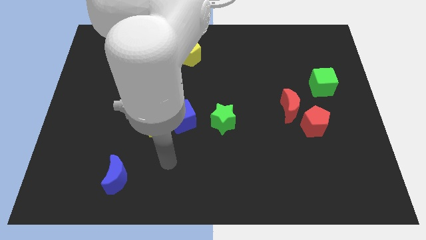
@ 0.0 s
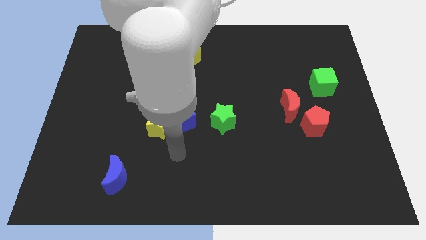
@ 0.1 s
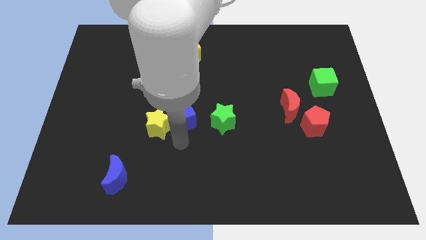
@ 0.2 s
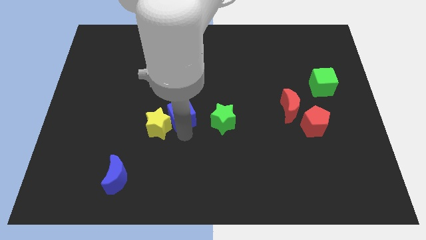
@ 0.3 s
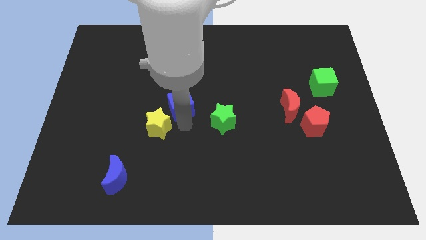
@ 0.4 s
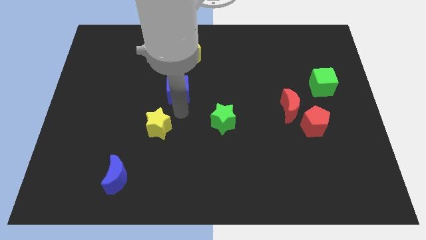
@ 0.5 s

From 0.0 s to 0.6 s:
move the yellow star away from the blue cube

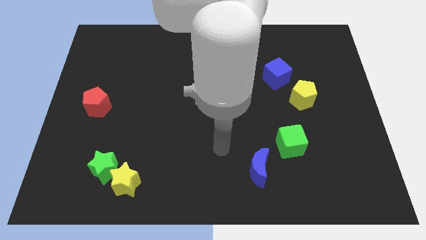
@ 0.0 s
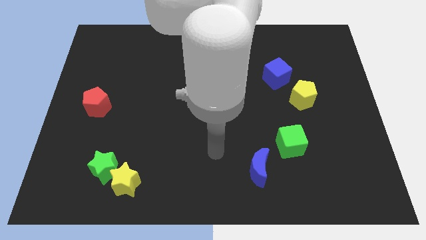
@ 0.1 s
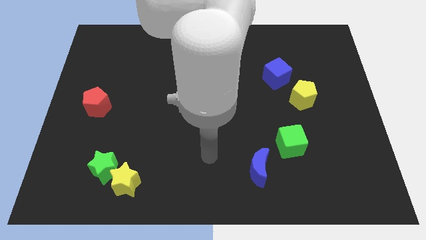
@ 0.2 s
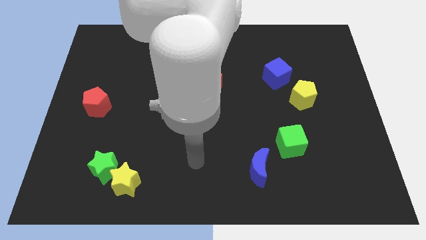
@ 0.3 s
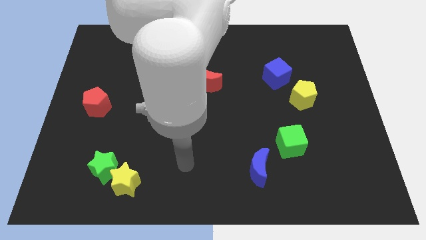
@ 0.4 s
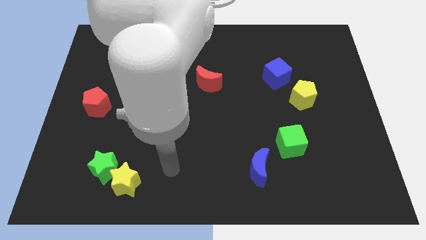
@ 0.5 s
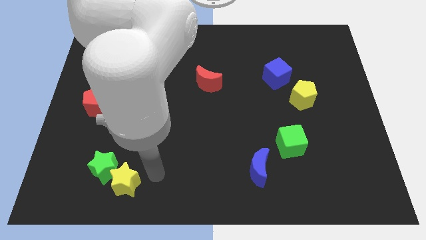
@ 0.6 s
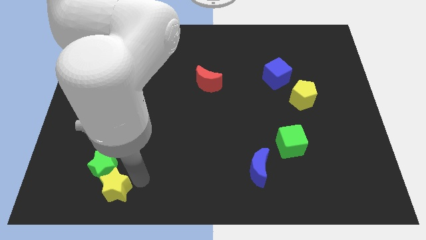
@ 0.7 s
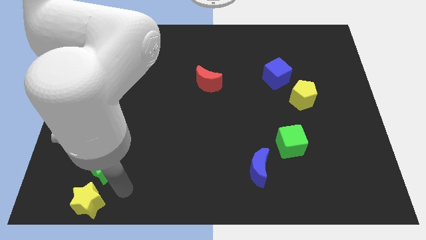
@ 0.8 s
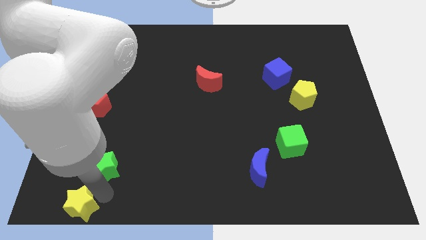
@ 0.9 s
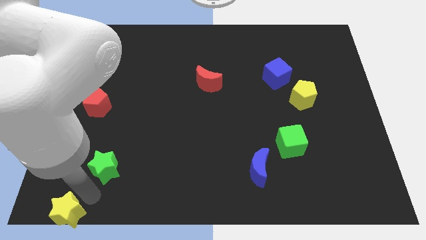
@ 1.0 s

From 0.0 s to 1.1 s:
move the green star away from the yellow star

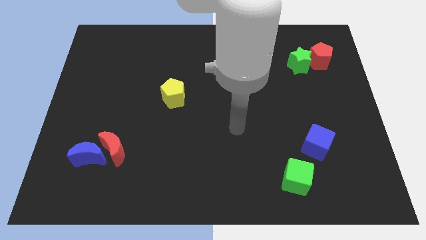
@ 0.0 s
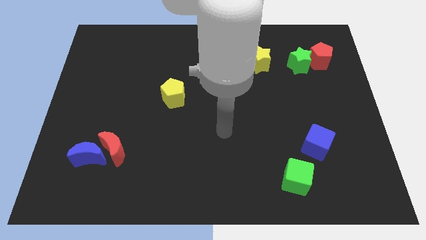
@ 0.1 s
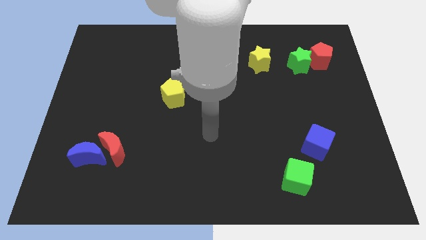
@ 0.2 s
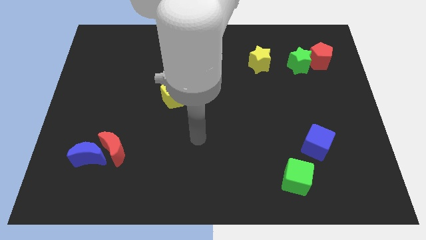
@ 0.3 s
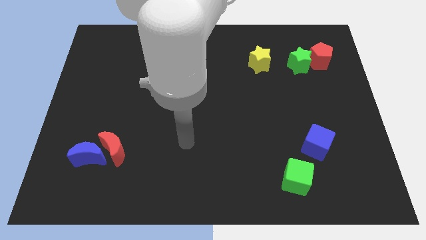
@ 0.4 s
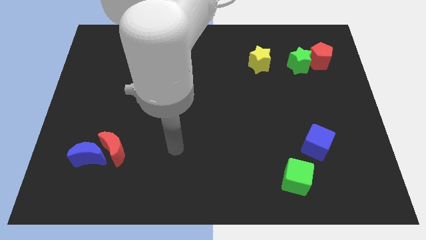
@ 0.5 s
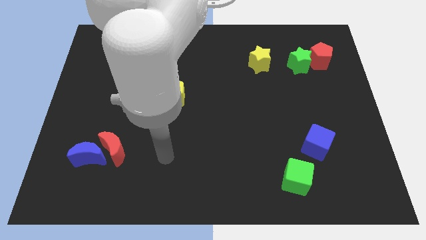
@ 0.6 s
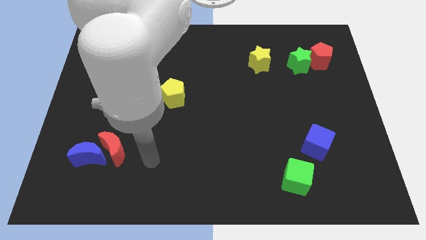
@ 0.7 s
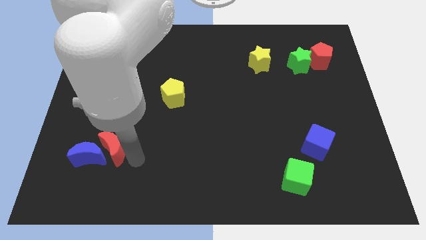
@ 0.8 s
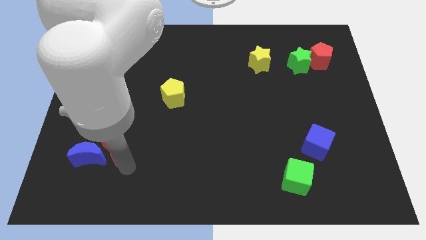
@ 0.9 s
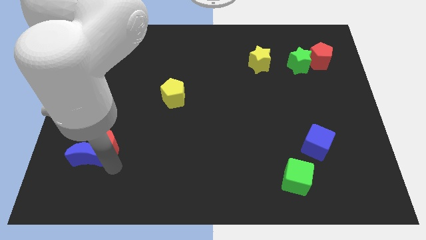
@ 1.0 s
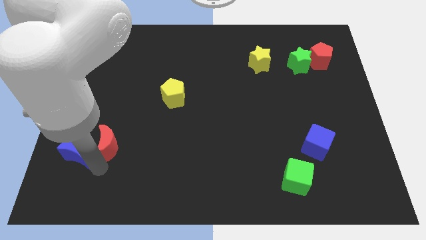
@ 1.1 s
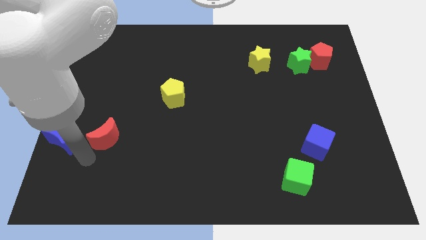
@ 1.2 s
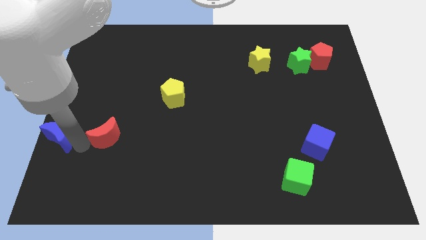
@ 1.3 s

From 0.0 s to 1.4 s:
move the red moon away from the blue moon

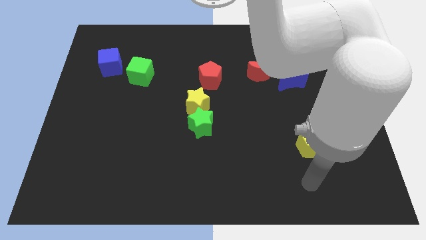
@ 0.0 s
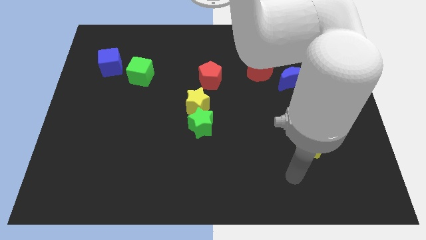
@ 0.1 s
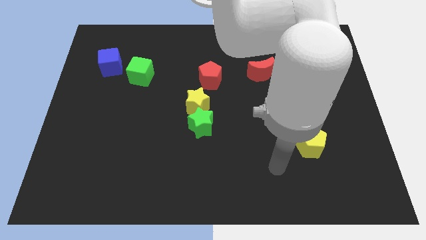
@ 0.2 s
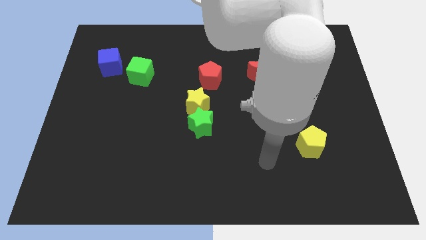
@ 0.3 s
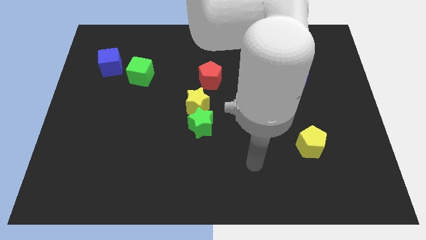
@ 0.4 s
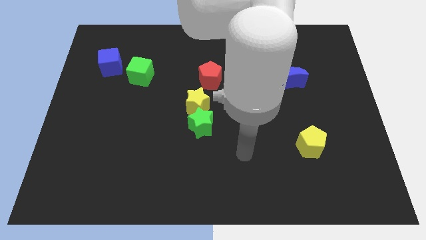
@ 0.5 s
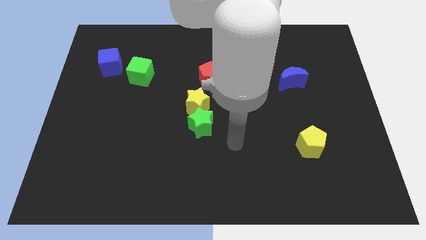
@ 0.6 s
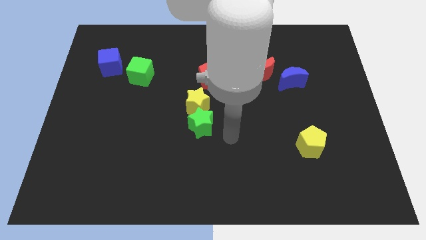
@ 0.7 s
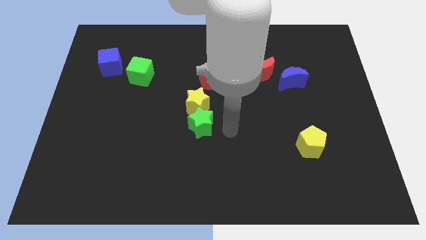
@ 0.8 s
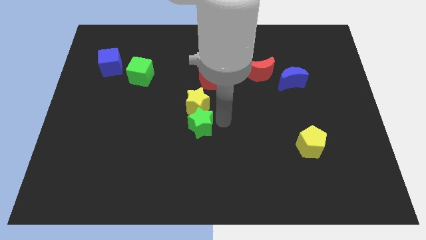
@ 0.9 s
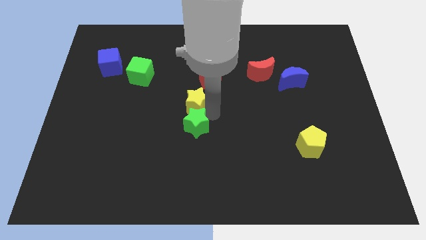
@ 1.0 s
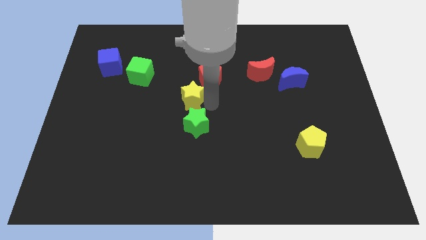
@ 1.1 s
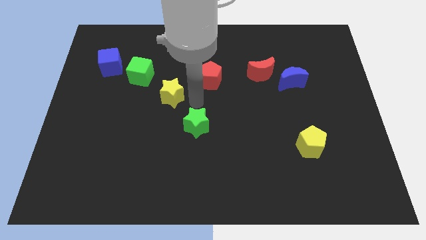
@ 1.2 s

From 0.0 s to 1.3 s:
separate the green star from the yellow star

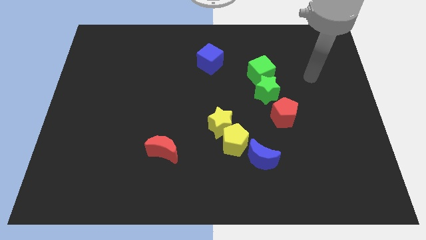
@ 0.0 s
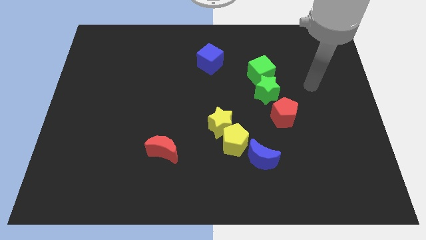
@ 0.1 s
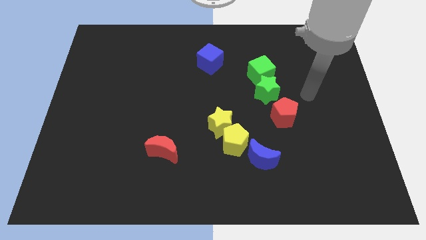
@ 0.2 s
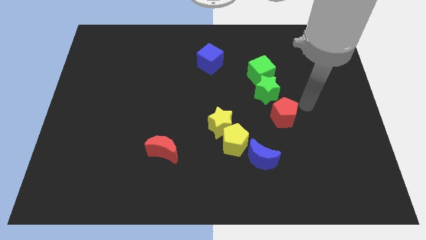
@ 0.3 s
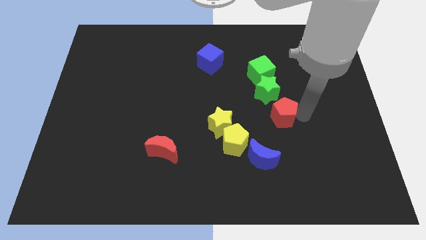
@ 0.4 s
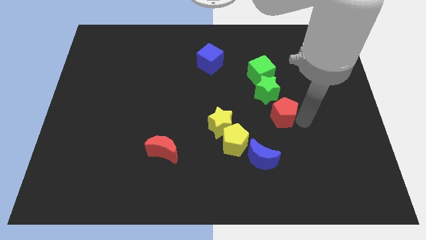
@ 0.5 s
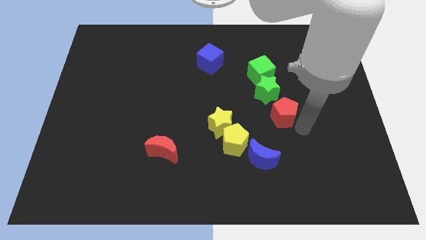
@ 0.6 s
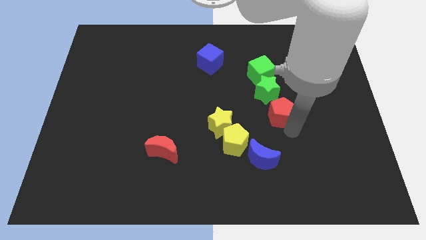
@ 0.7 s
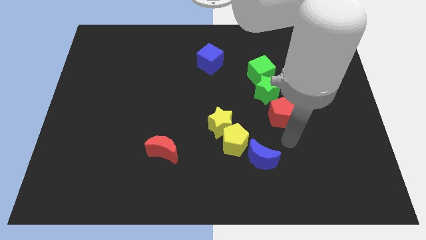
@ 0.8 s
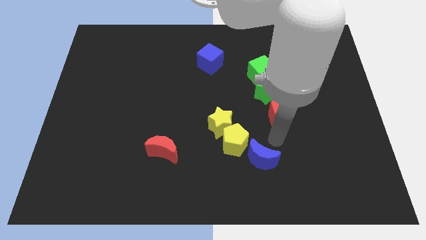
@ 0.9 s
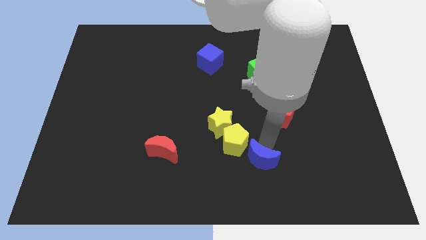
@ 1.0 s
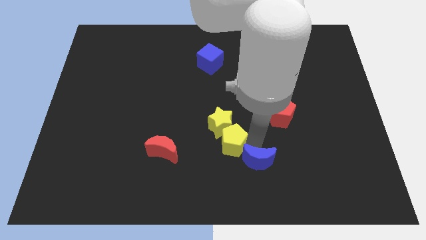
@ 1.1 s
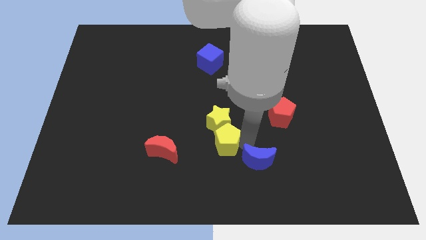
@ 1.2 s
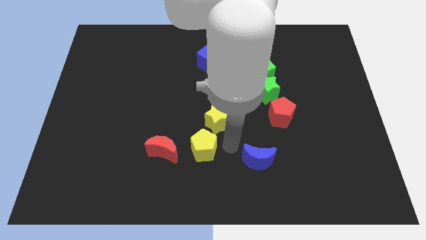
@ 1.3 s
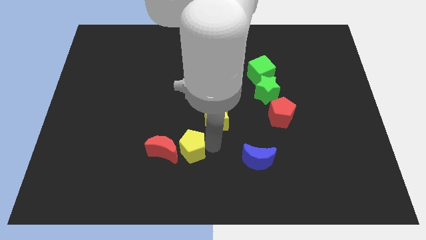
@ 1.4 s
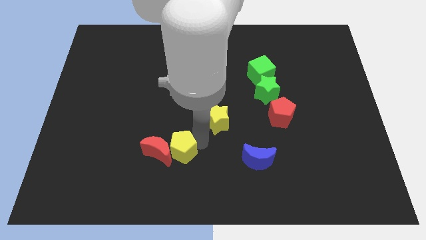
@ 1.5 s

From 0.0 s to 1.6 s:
separate the yellow star from the yellow pentagon

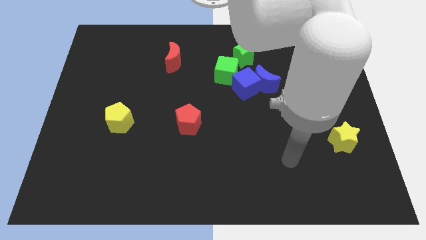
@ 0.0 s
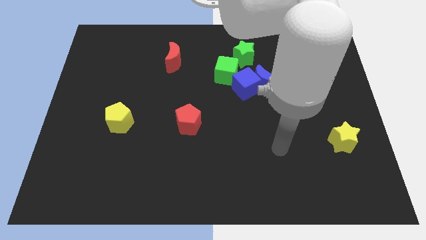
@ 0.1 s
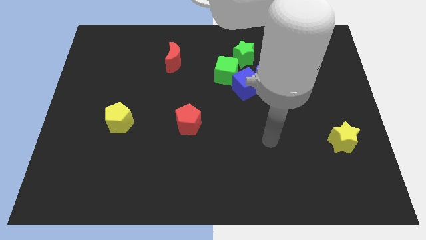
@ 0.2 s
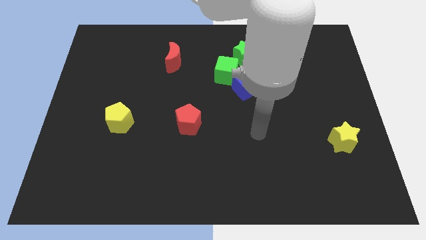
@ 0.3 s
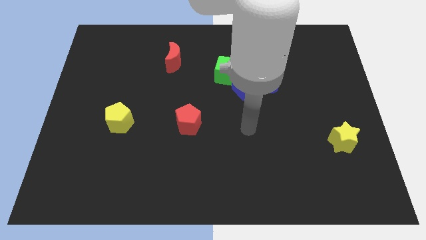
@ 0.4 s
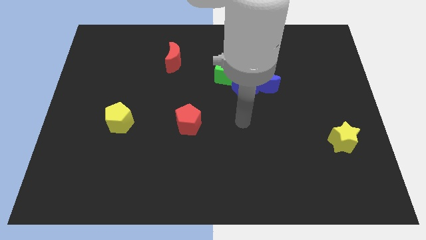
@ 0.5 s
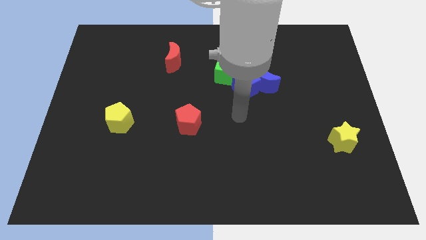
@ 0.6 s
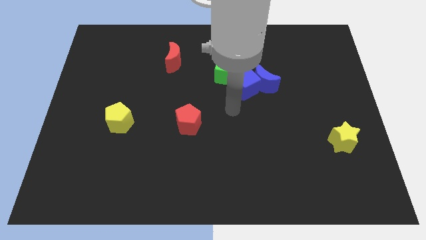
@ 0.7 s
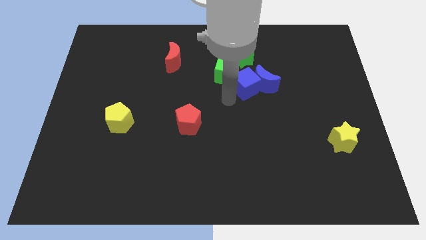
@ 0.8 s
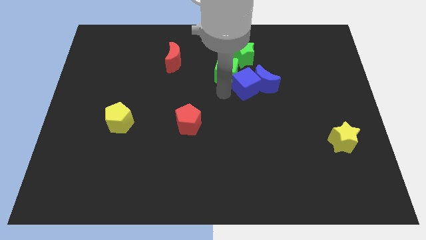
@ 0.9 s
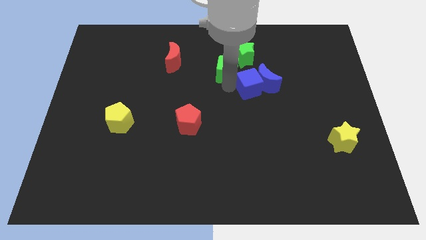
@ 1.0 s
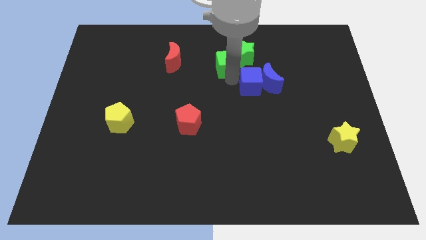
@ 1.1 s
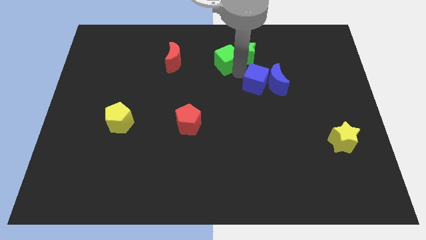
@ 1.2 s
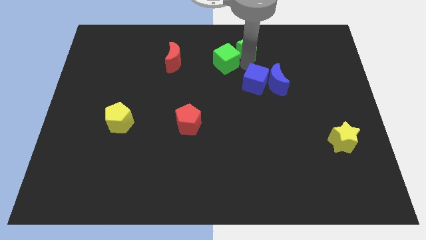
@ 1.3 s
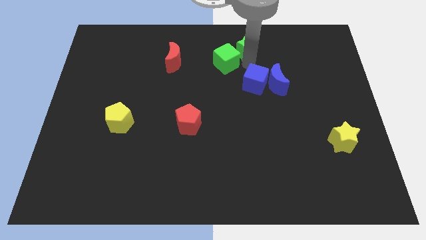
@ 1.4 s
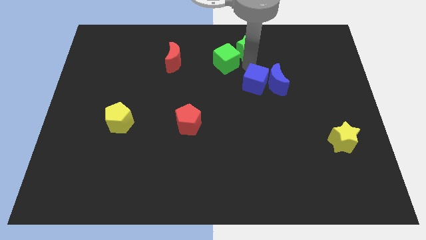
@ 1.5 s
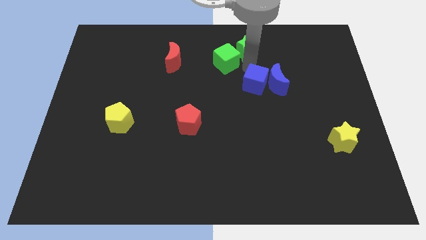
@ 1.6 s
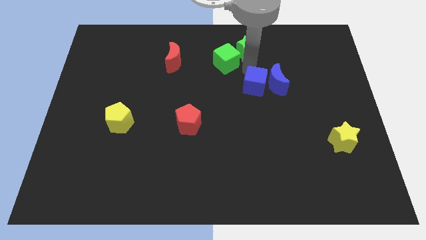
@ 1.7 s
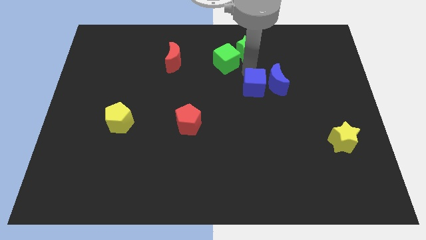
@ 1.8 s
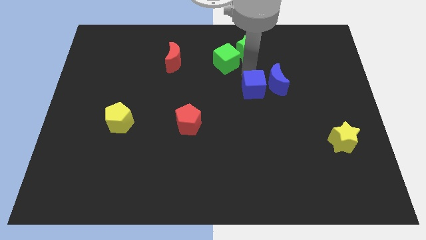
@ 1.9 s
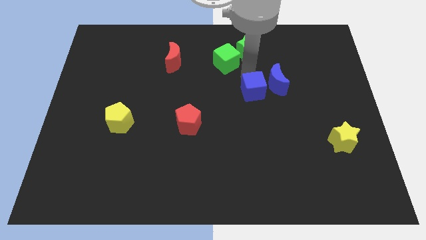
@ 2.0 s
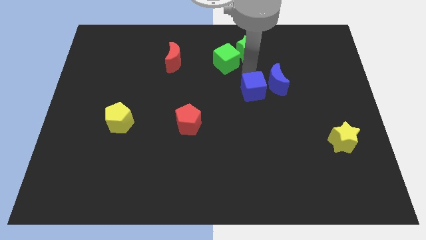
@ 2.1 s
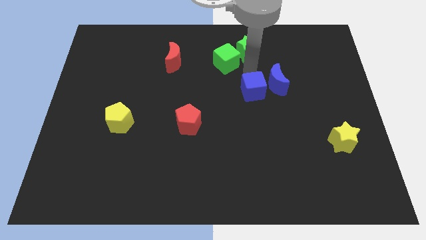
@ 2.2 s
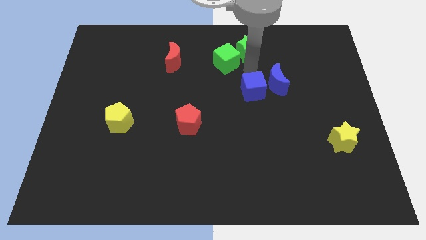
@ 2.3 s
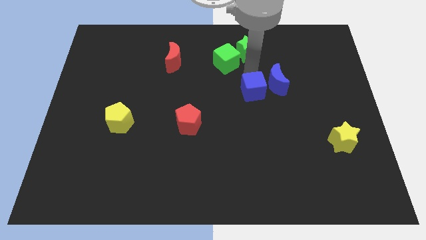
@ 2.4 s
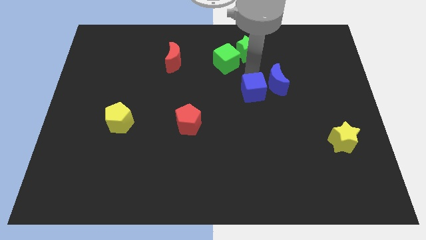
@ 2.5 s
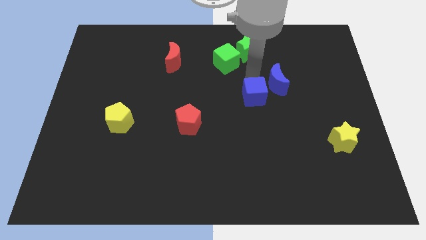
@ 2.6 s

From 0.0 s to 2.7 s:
separate the blue cube from the blue moon, green cube, and green star

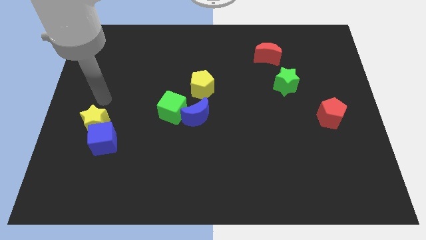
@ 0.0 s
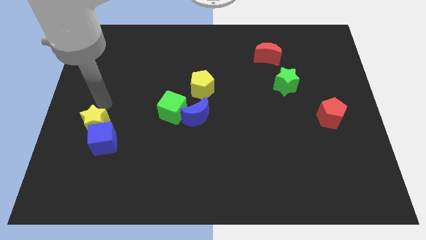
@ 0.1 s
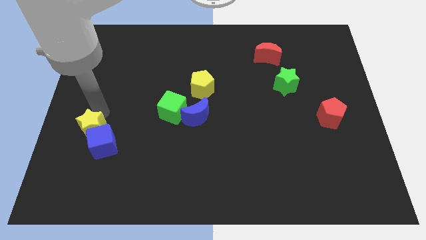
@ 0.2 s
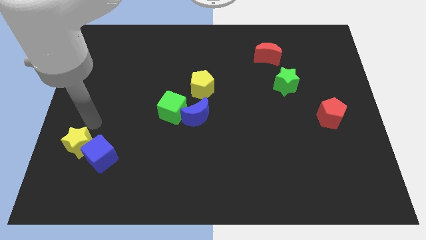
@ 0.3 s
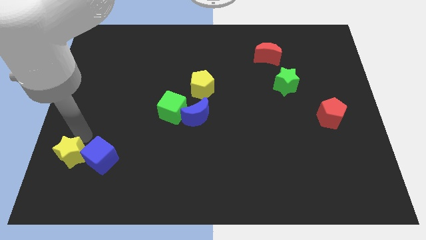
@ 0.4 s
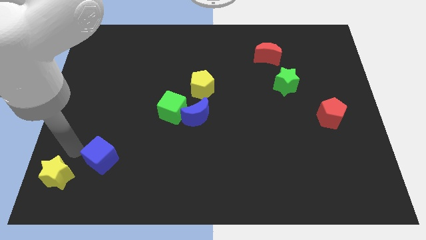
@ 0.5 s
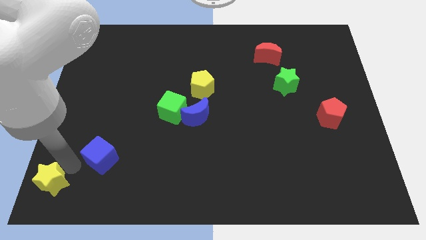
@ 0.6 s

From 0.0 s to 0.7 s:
pull the blue cube apart from the yellow star
